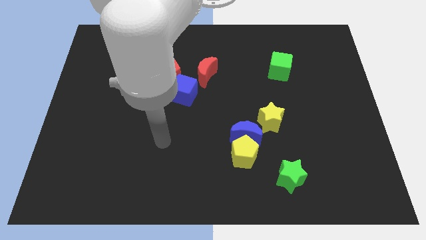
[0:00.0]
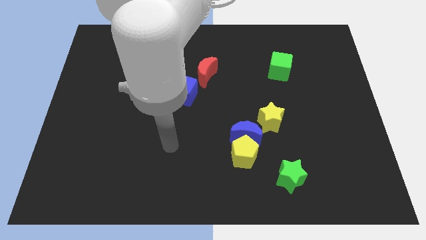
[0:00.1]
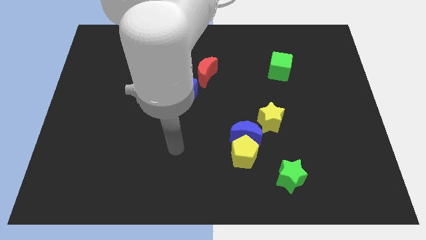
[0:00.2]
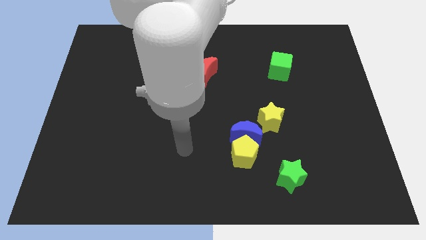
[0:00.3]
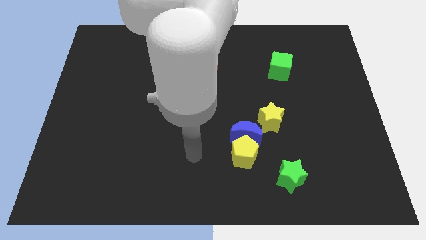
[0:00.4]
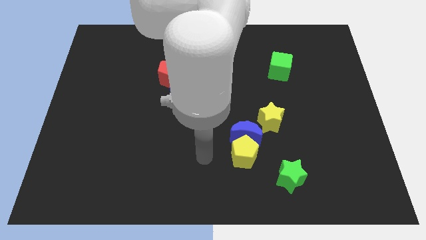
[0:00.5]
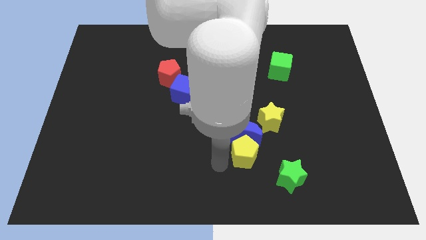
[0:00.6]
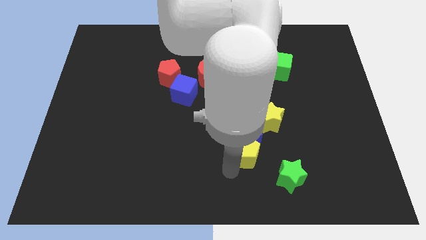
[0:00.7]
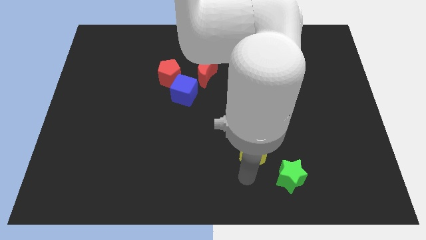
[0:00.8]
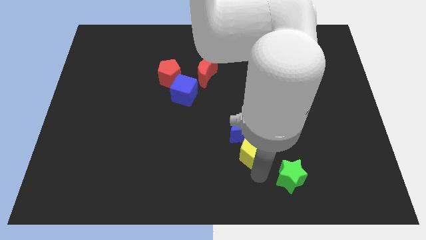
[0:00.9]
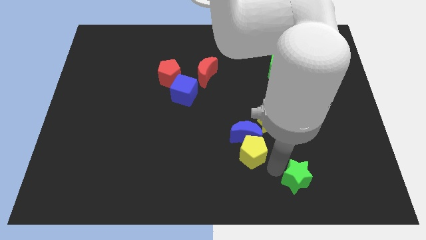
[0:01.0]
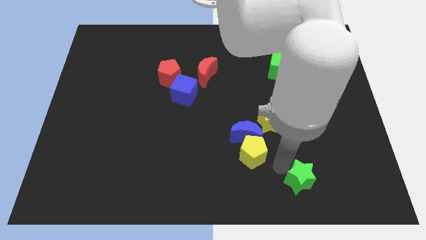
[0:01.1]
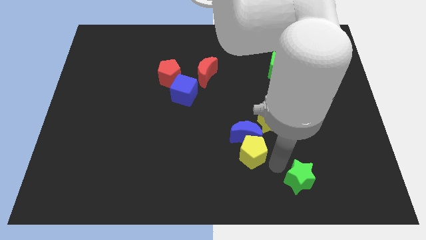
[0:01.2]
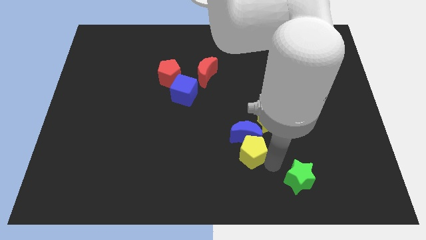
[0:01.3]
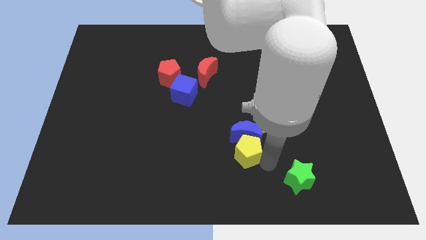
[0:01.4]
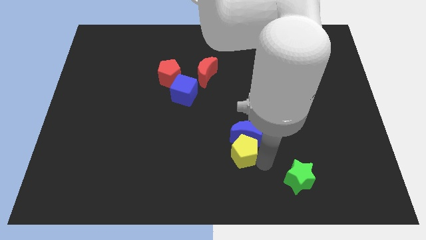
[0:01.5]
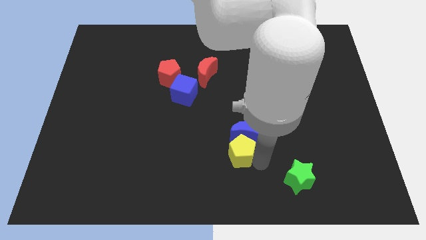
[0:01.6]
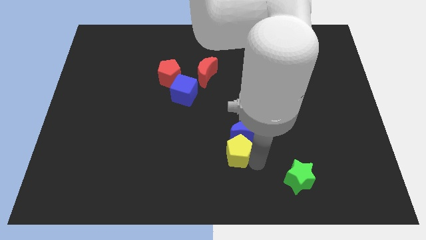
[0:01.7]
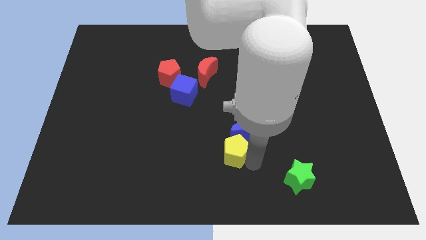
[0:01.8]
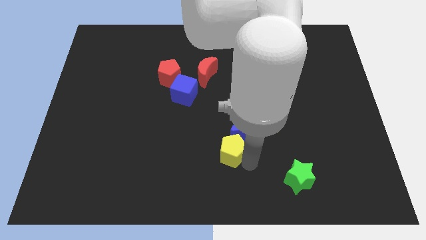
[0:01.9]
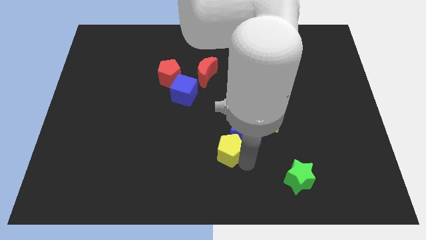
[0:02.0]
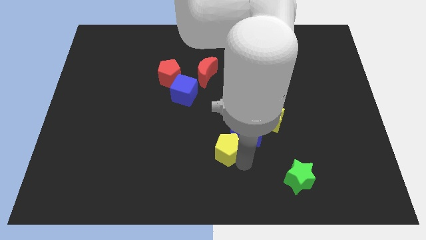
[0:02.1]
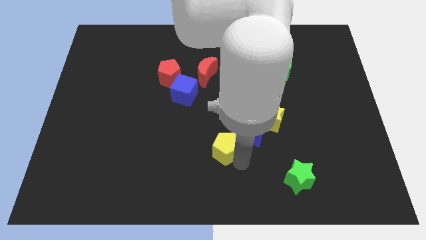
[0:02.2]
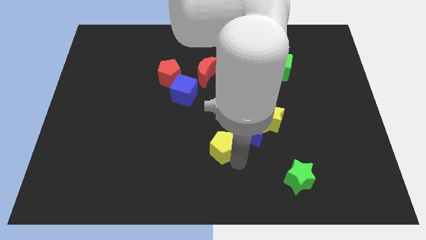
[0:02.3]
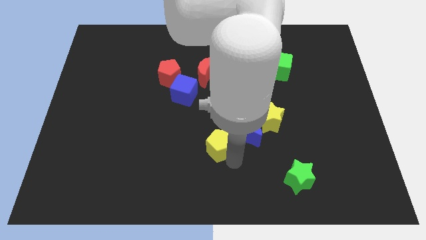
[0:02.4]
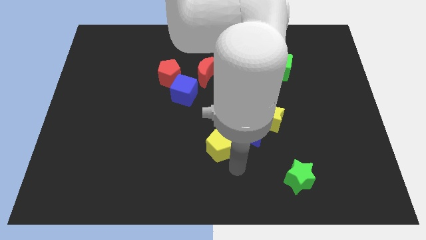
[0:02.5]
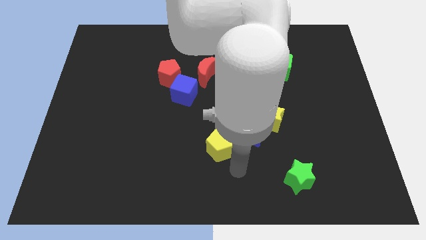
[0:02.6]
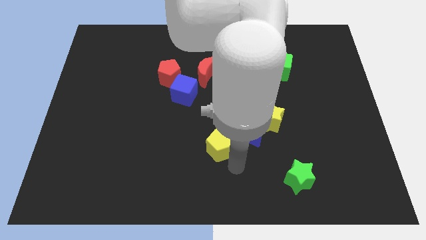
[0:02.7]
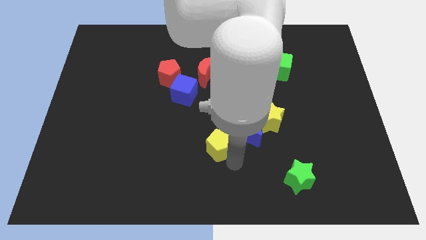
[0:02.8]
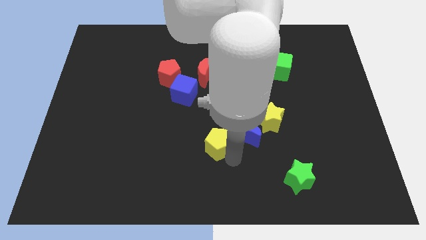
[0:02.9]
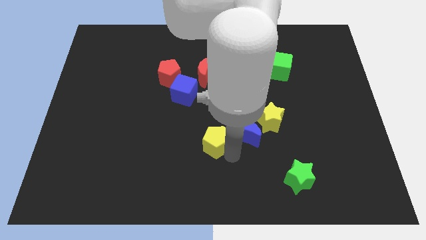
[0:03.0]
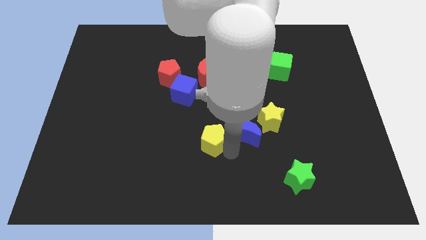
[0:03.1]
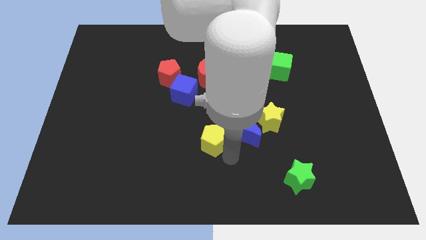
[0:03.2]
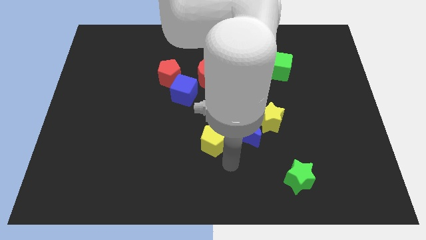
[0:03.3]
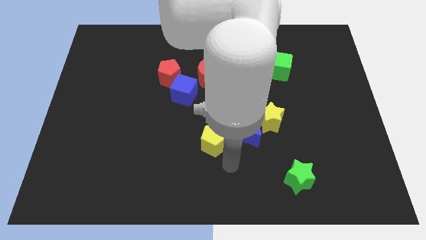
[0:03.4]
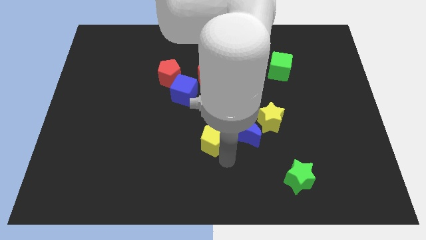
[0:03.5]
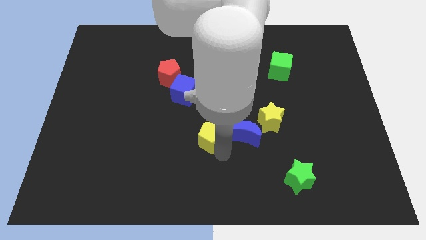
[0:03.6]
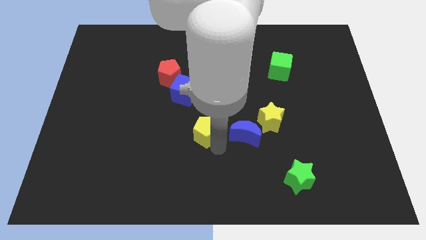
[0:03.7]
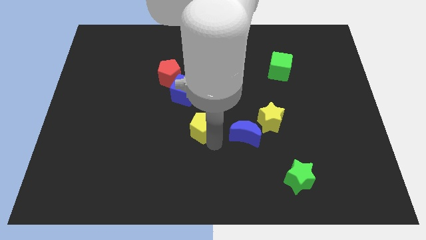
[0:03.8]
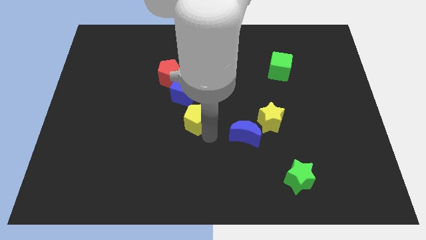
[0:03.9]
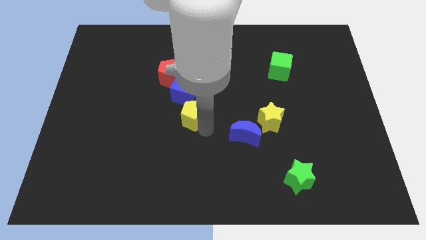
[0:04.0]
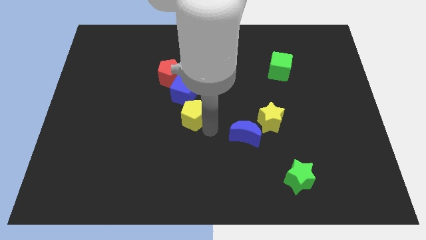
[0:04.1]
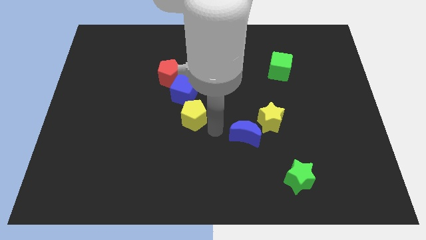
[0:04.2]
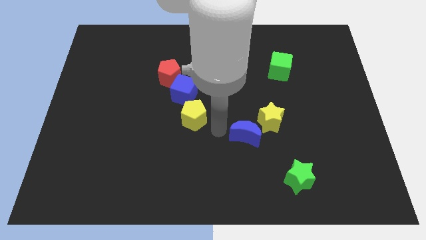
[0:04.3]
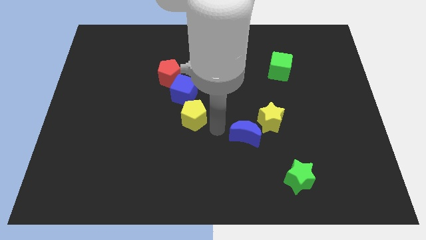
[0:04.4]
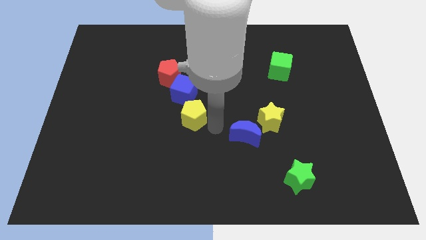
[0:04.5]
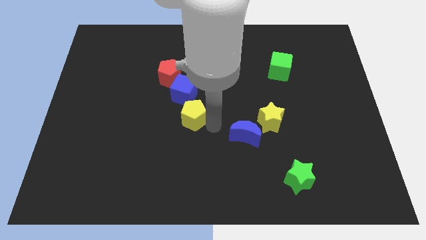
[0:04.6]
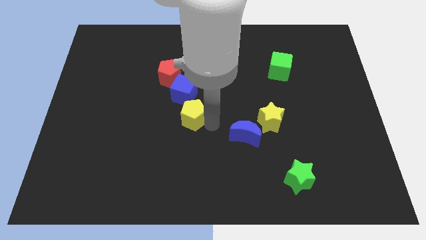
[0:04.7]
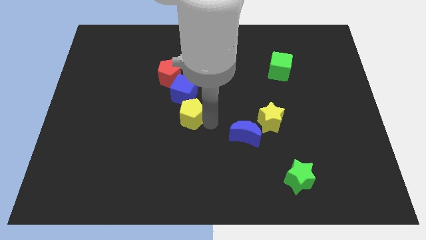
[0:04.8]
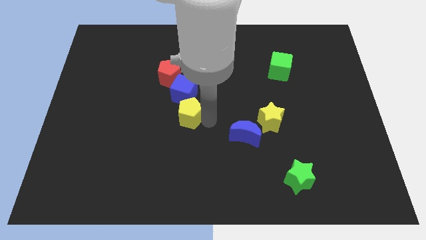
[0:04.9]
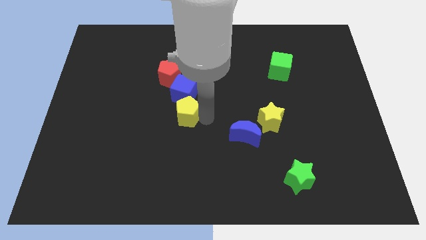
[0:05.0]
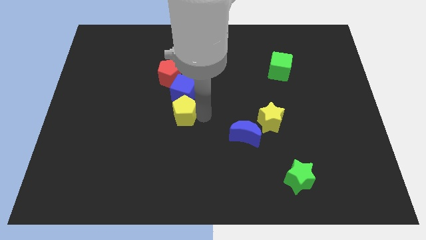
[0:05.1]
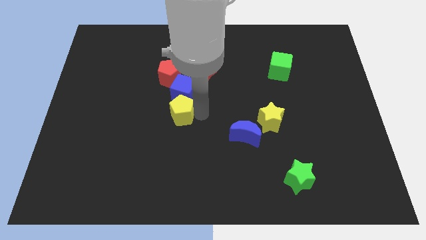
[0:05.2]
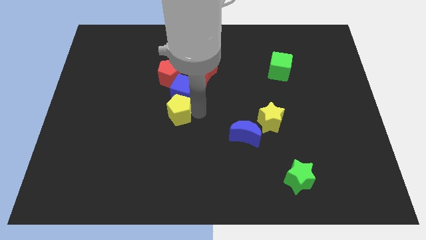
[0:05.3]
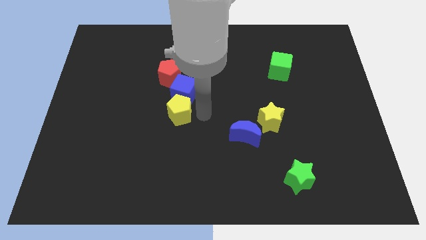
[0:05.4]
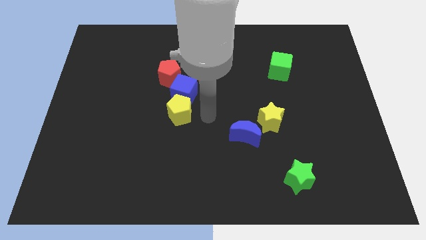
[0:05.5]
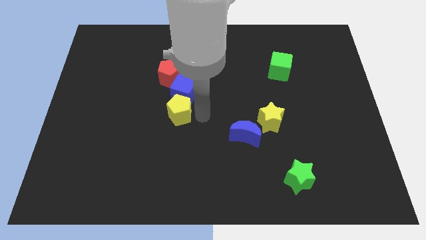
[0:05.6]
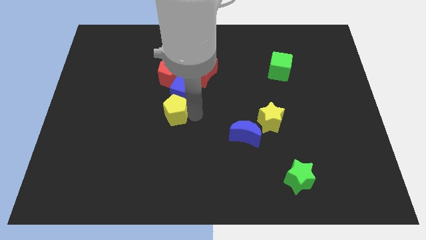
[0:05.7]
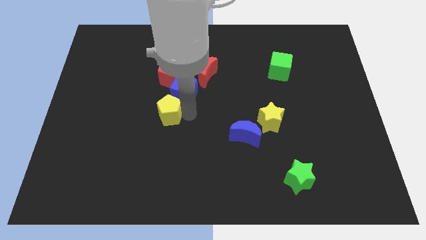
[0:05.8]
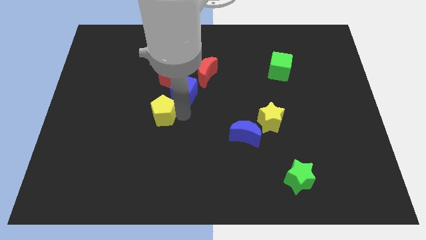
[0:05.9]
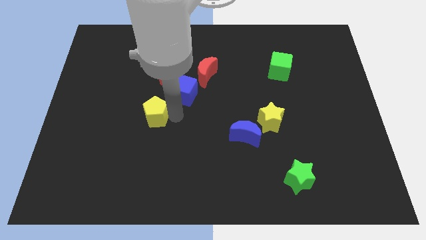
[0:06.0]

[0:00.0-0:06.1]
push the yellow pentagon diagonally upwards and to the left

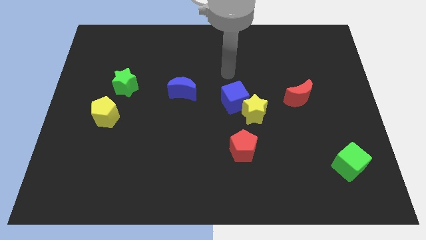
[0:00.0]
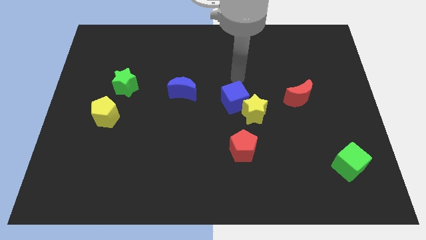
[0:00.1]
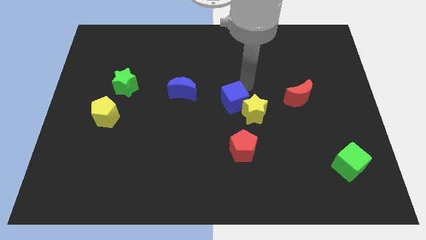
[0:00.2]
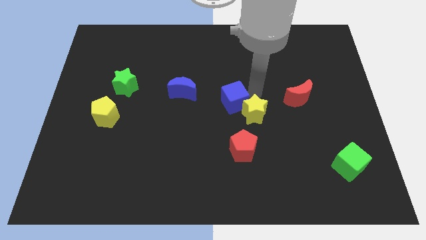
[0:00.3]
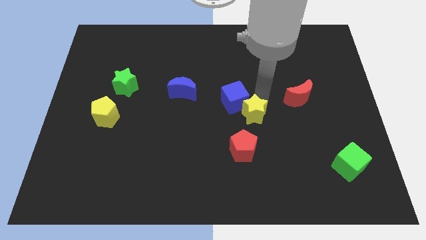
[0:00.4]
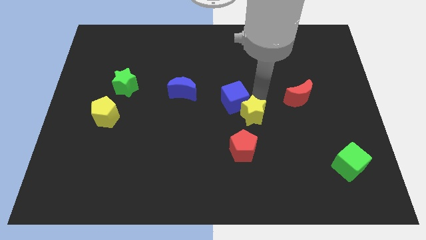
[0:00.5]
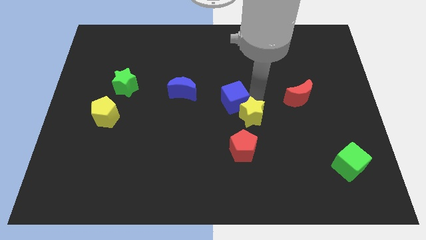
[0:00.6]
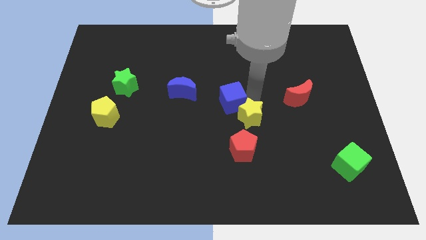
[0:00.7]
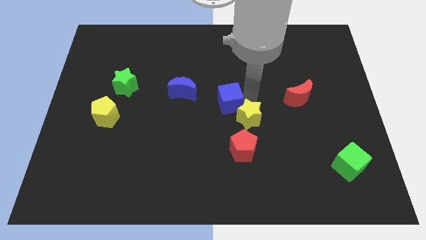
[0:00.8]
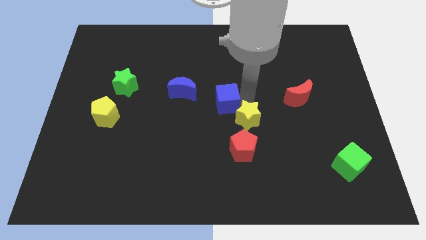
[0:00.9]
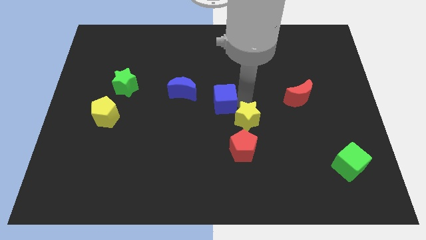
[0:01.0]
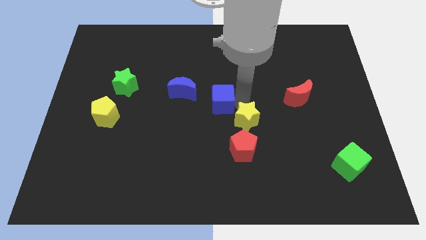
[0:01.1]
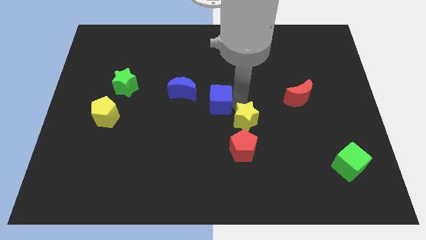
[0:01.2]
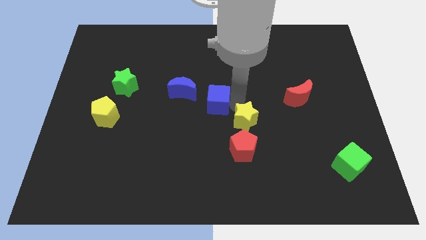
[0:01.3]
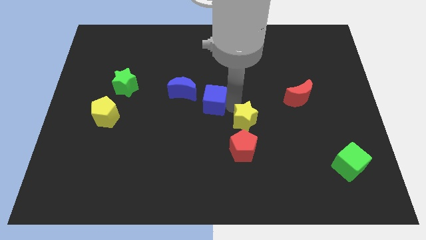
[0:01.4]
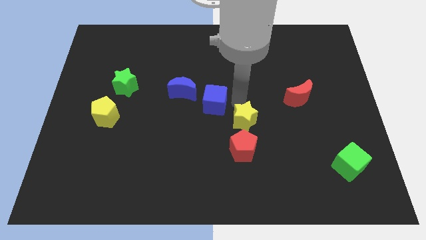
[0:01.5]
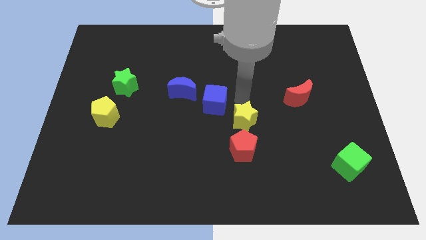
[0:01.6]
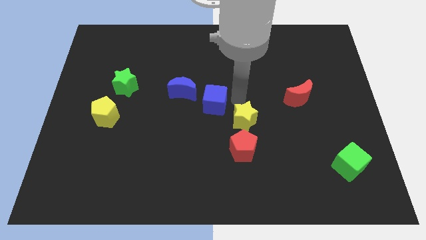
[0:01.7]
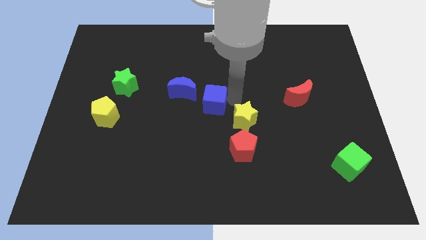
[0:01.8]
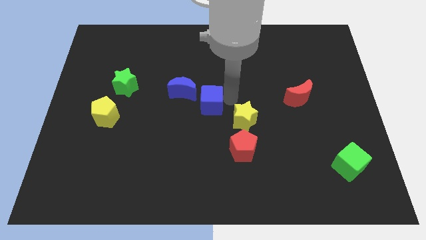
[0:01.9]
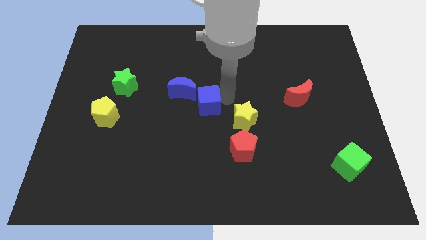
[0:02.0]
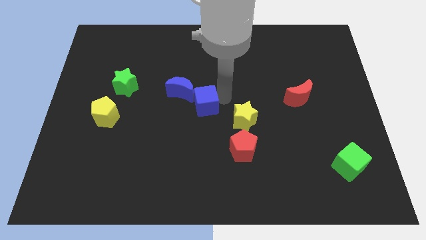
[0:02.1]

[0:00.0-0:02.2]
push the blue cube a bit to the left
